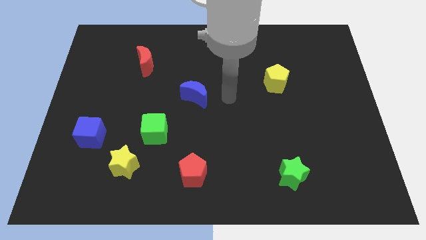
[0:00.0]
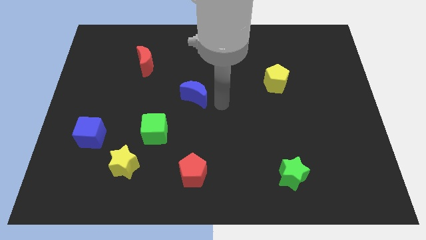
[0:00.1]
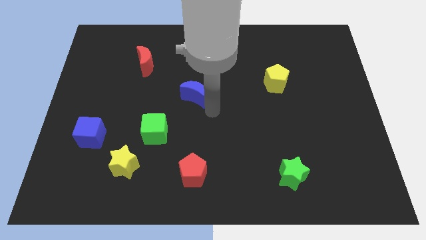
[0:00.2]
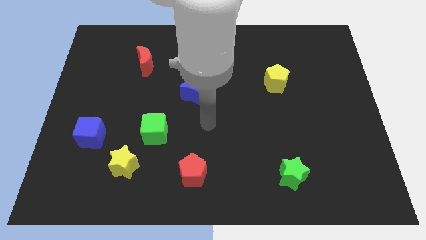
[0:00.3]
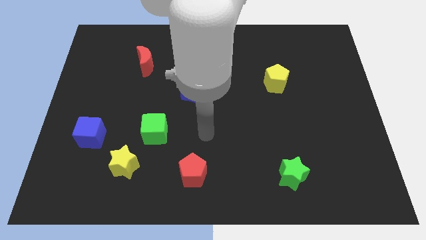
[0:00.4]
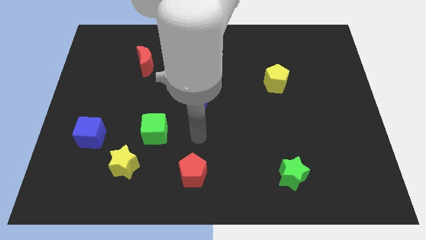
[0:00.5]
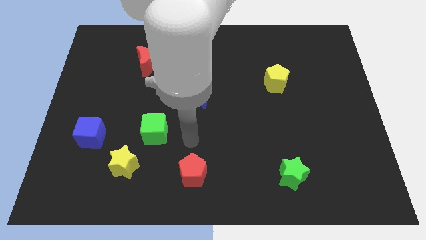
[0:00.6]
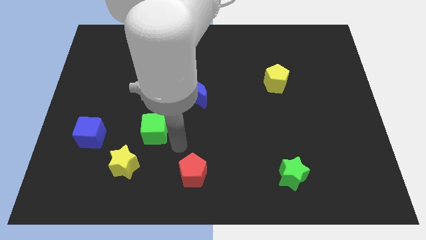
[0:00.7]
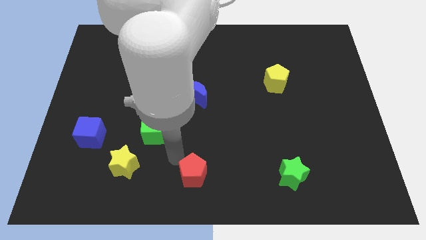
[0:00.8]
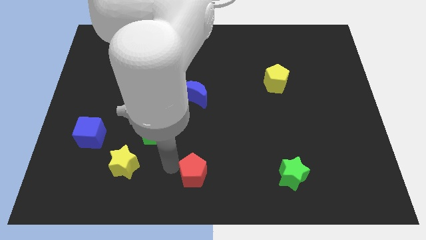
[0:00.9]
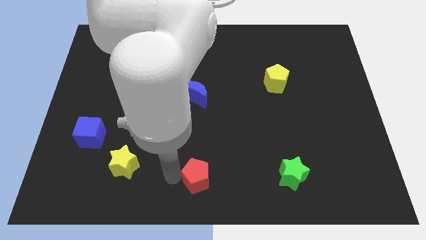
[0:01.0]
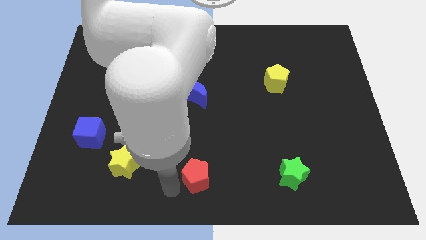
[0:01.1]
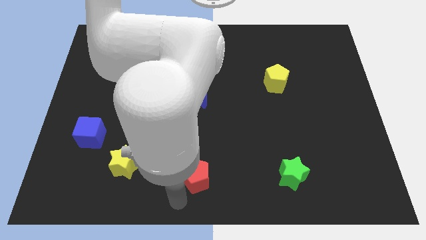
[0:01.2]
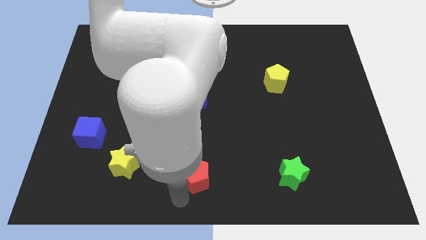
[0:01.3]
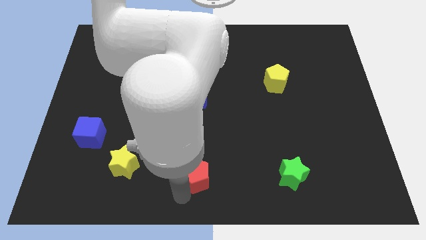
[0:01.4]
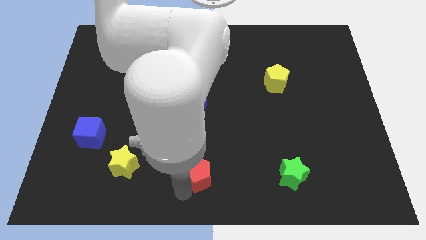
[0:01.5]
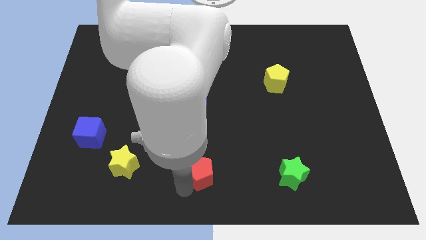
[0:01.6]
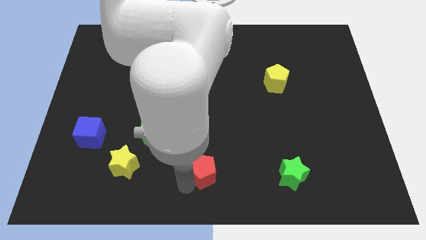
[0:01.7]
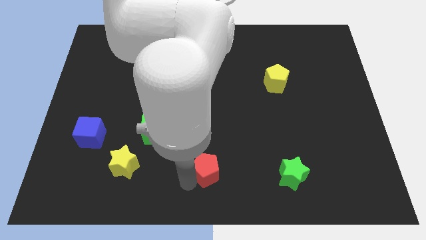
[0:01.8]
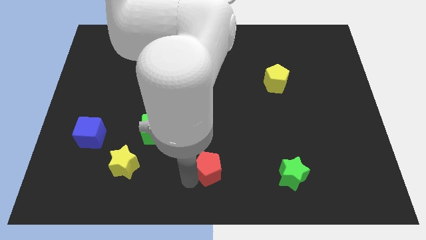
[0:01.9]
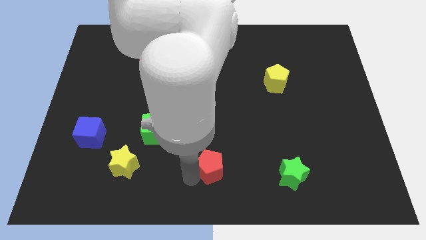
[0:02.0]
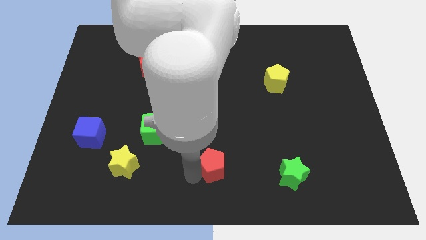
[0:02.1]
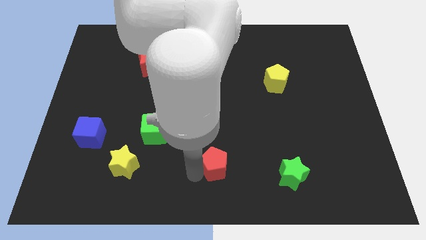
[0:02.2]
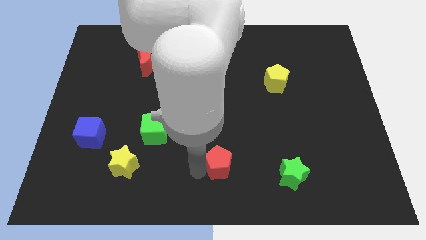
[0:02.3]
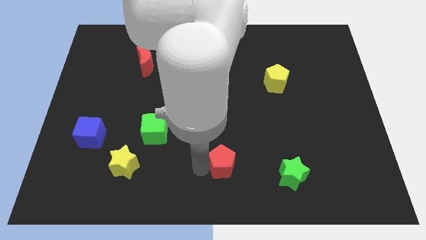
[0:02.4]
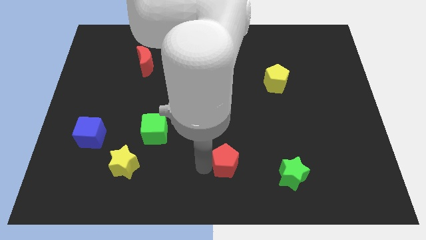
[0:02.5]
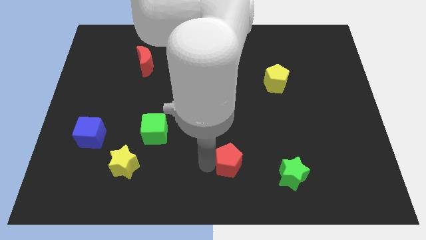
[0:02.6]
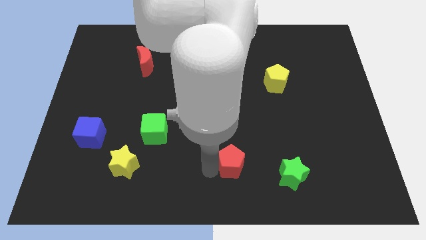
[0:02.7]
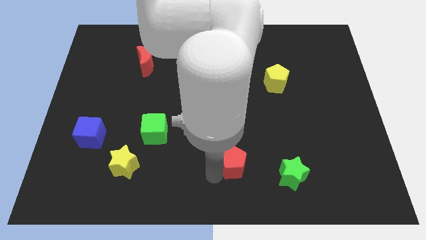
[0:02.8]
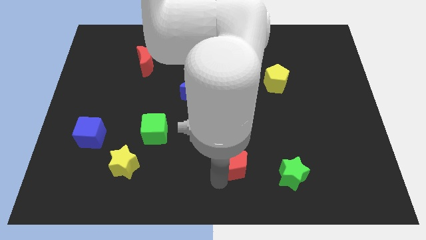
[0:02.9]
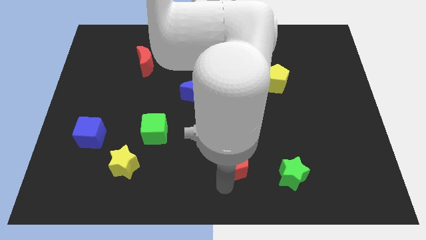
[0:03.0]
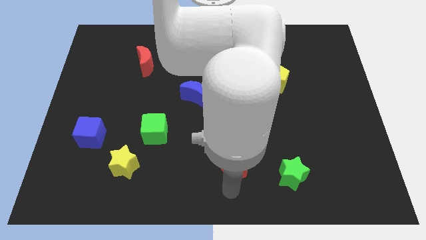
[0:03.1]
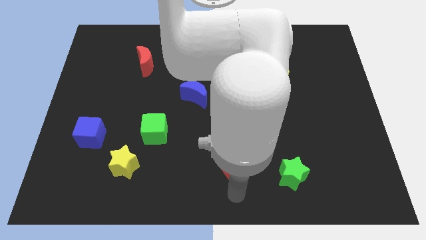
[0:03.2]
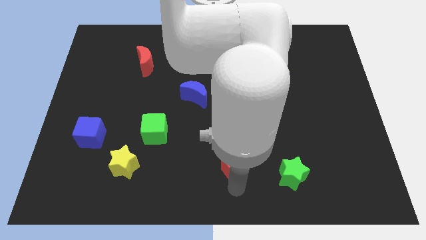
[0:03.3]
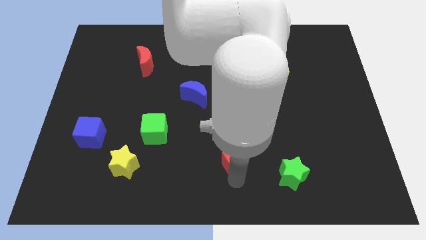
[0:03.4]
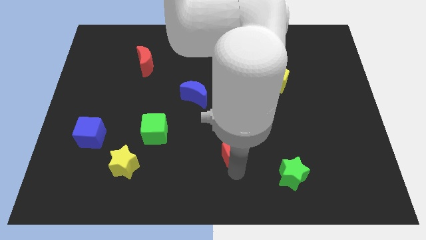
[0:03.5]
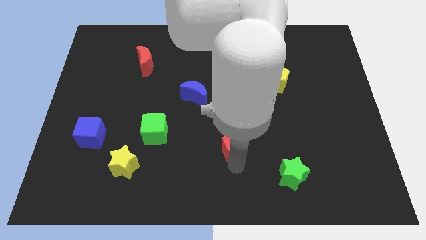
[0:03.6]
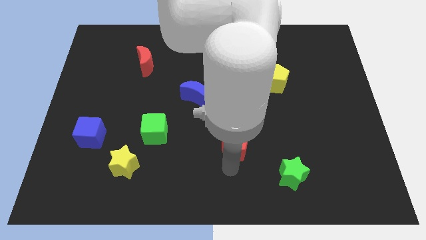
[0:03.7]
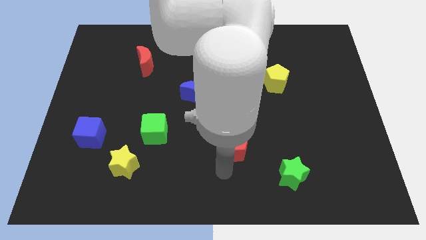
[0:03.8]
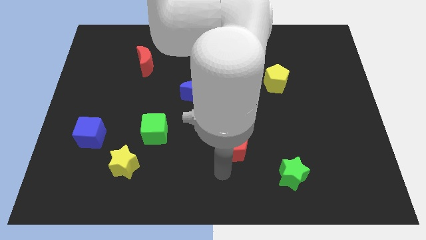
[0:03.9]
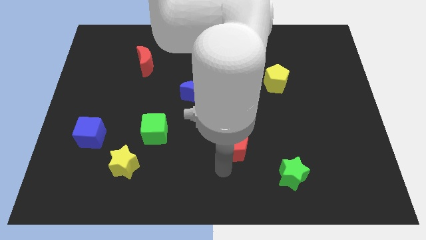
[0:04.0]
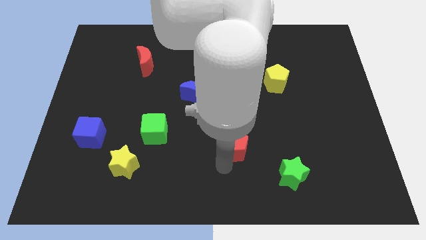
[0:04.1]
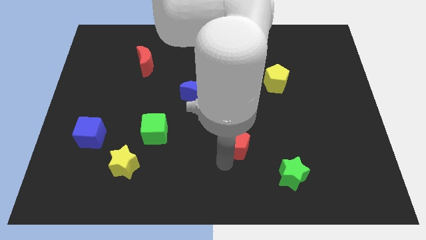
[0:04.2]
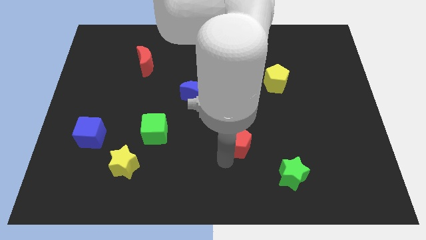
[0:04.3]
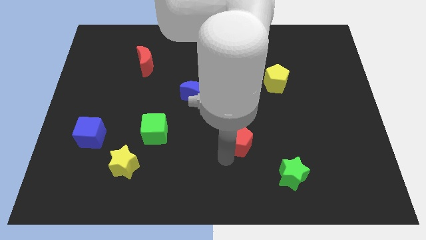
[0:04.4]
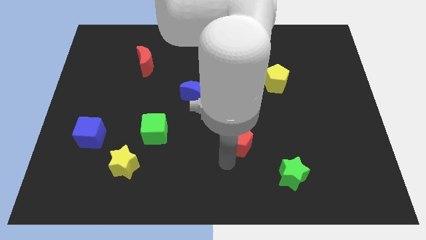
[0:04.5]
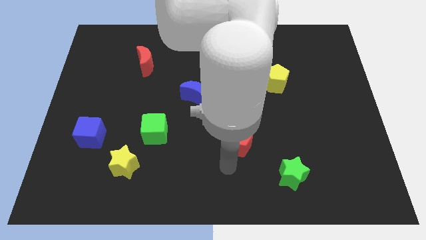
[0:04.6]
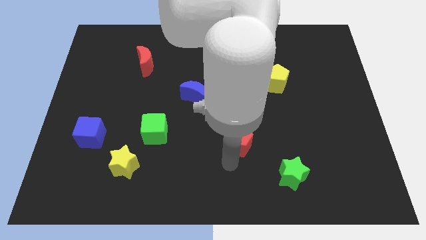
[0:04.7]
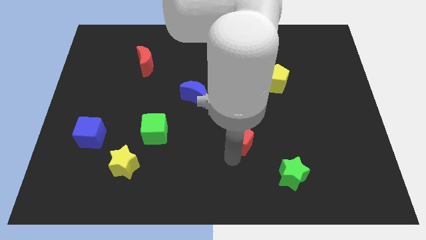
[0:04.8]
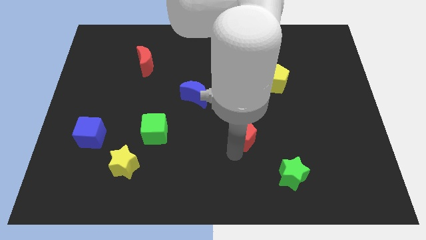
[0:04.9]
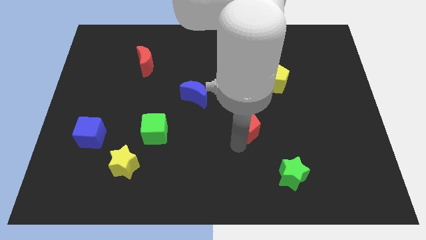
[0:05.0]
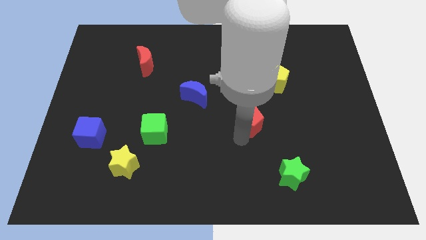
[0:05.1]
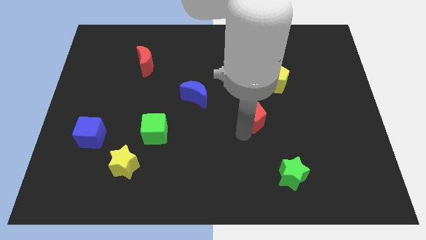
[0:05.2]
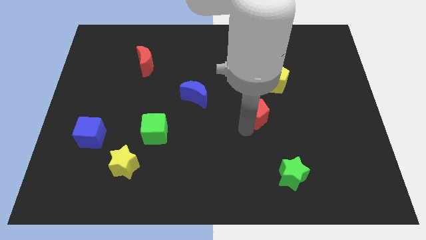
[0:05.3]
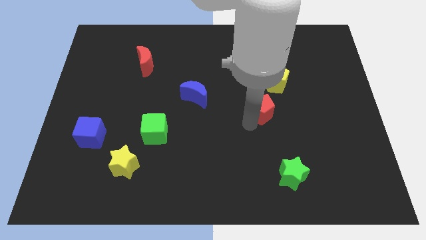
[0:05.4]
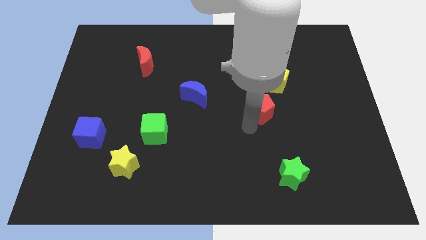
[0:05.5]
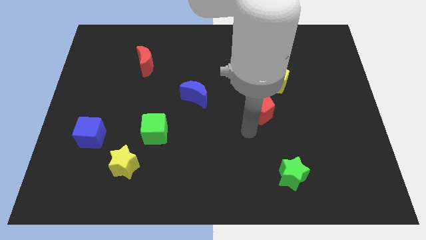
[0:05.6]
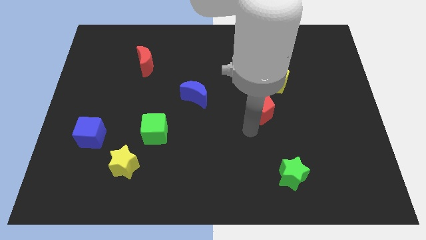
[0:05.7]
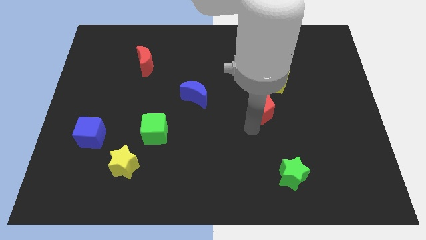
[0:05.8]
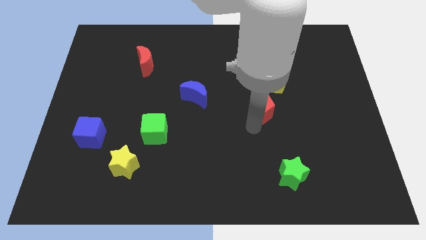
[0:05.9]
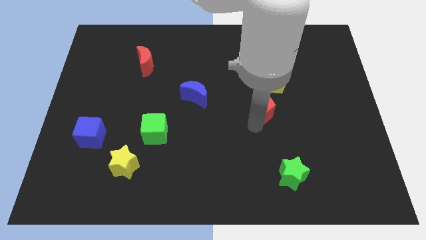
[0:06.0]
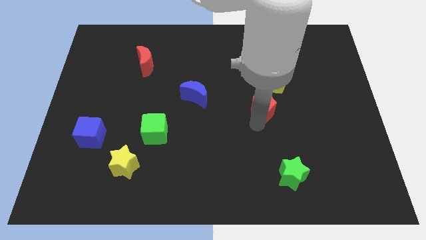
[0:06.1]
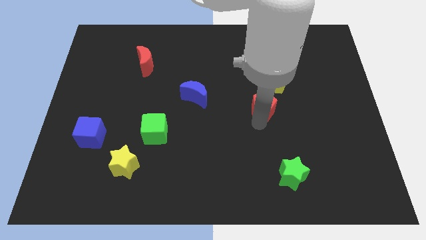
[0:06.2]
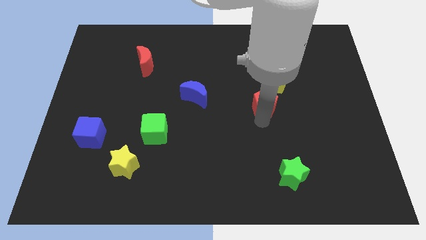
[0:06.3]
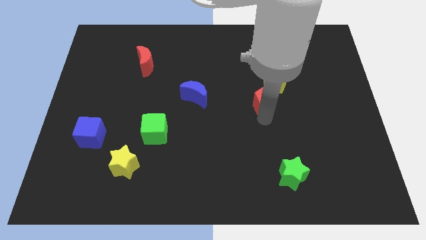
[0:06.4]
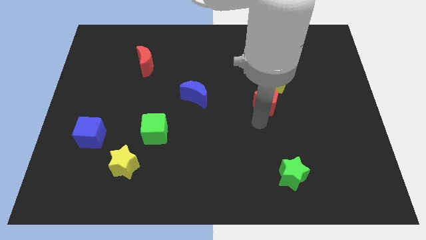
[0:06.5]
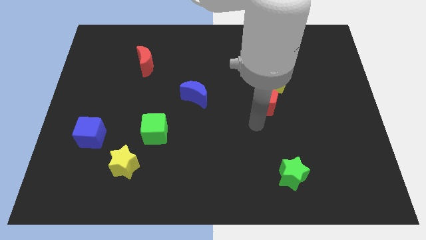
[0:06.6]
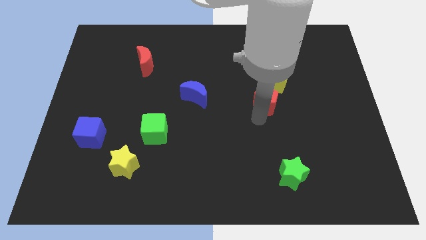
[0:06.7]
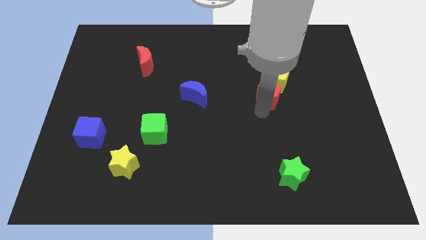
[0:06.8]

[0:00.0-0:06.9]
slide the red pentagon to the yellow pentagon
